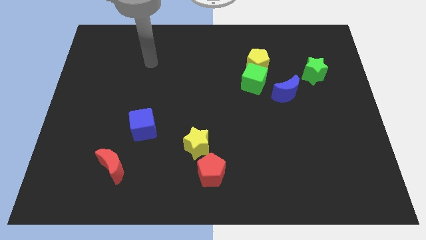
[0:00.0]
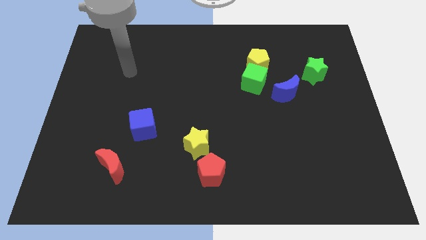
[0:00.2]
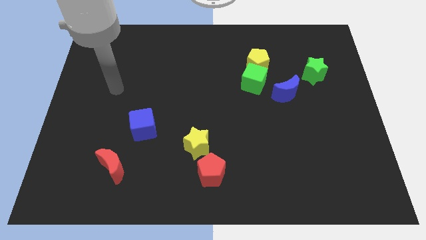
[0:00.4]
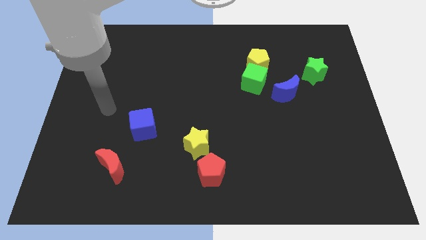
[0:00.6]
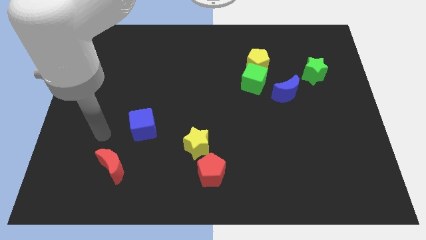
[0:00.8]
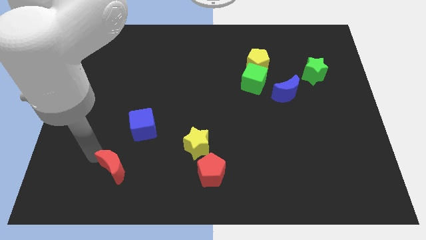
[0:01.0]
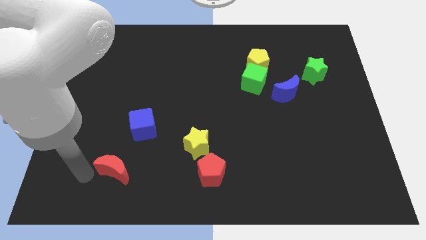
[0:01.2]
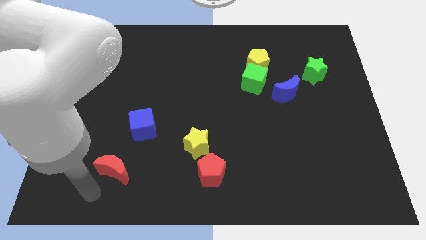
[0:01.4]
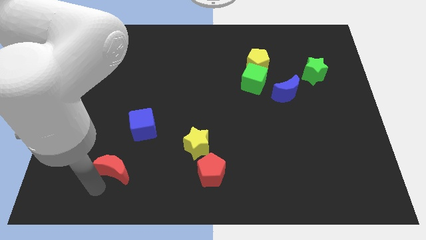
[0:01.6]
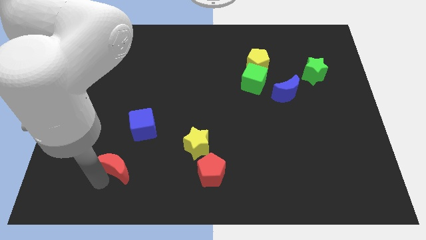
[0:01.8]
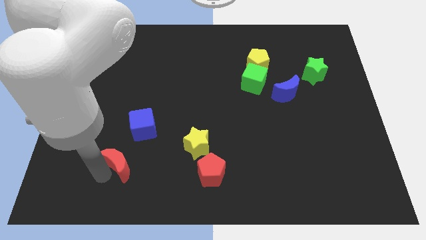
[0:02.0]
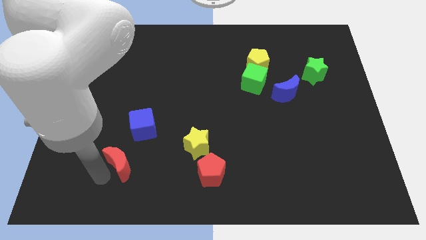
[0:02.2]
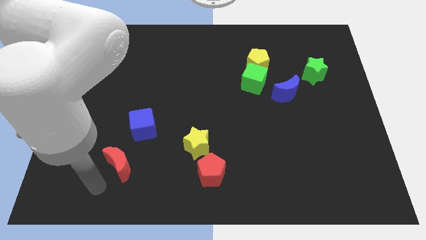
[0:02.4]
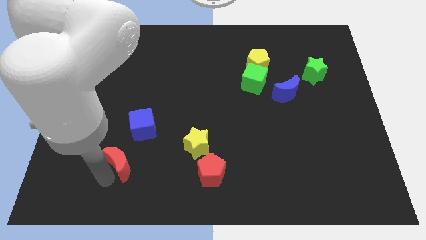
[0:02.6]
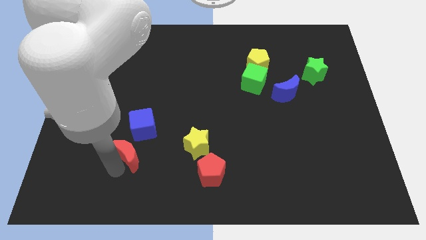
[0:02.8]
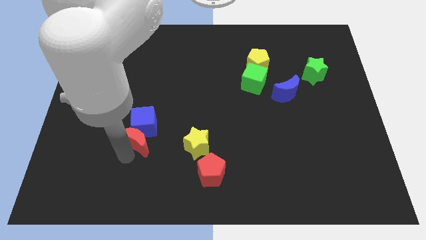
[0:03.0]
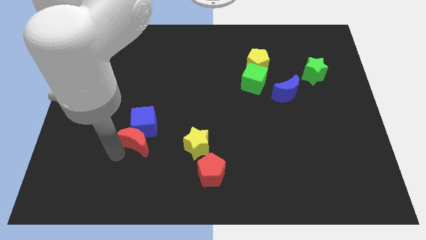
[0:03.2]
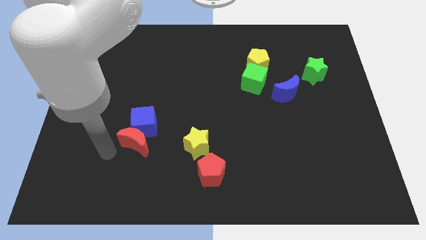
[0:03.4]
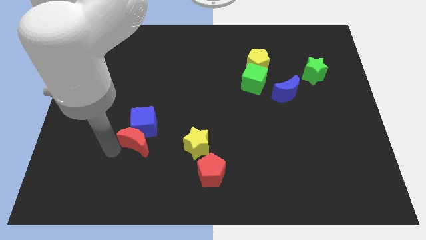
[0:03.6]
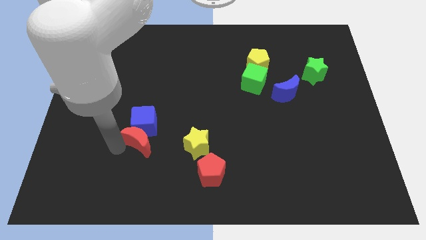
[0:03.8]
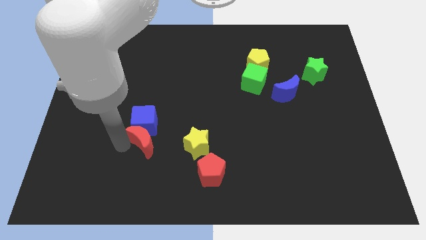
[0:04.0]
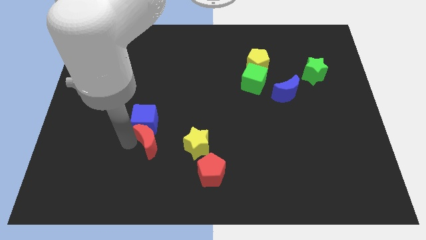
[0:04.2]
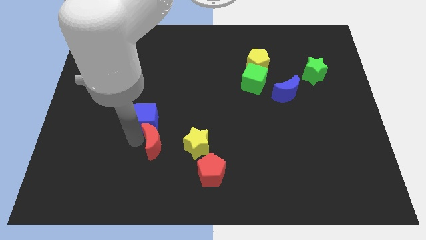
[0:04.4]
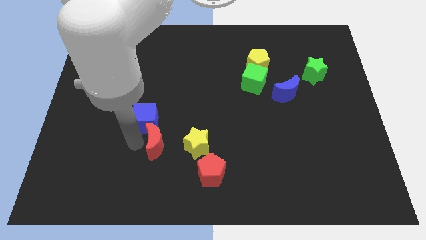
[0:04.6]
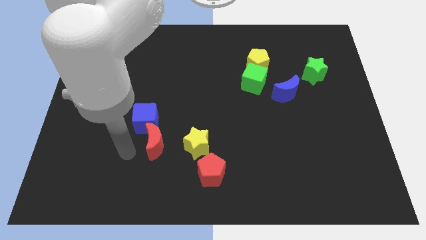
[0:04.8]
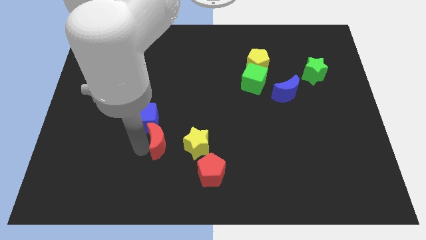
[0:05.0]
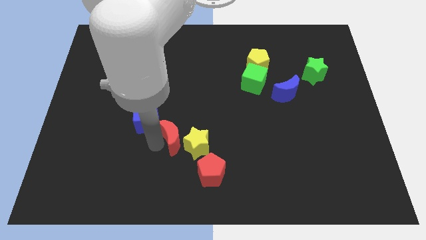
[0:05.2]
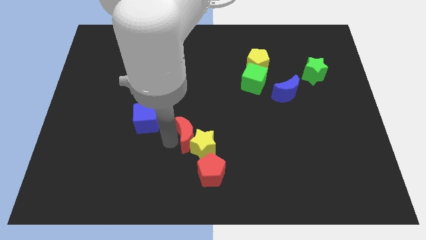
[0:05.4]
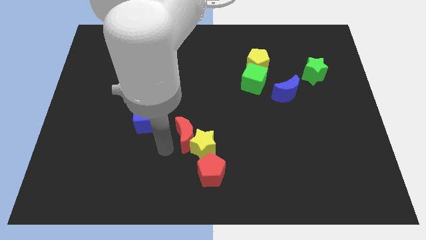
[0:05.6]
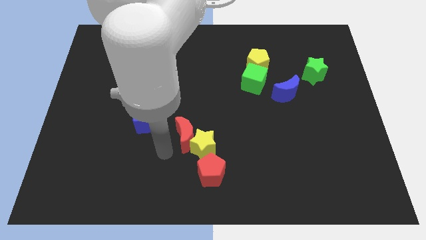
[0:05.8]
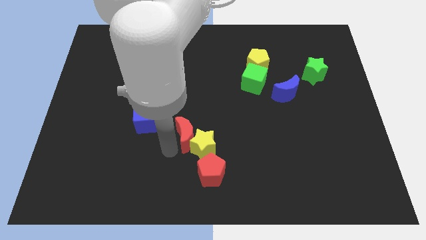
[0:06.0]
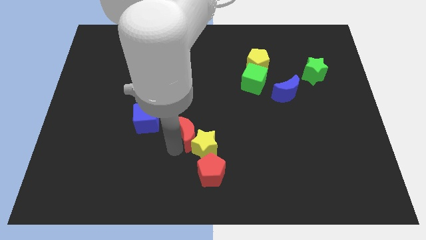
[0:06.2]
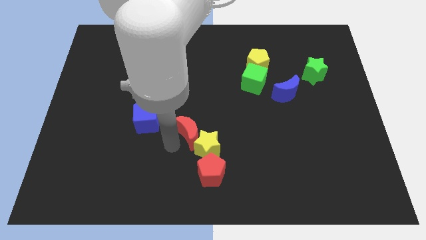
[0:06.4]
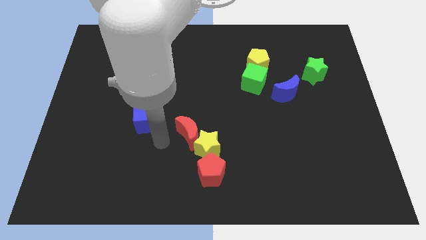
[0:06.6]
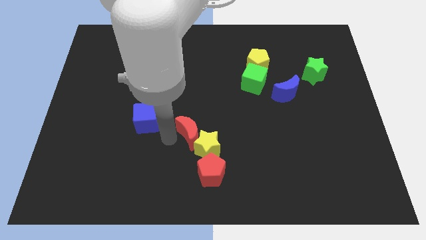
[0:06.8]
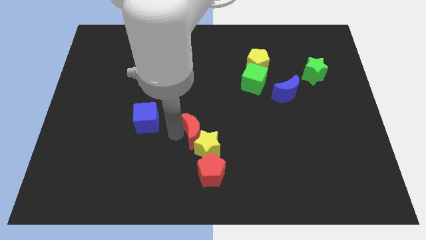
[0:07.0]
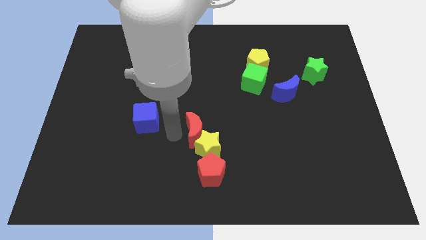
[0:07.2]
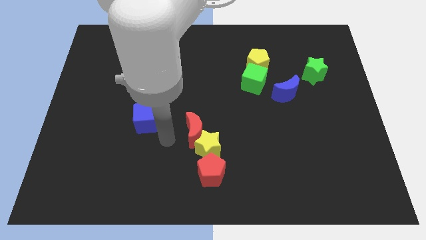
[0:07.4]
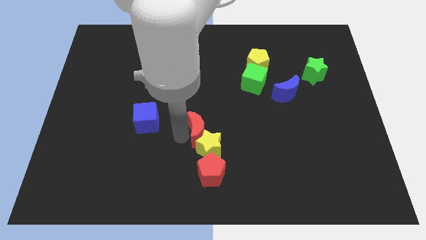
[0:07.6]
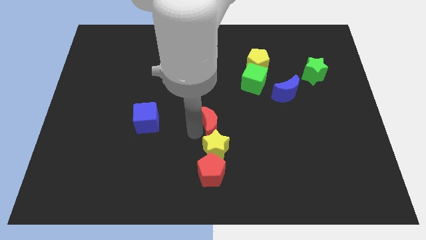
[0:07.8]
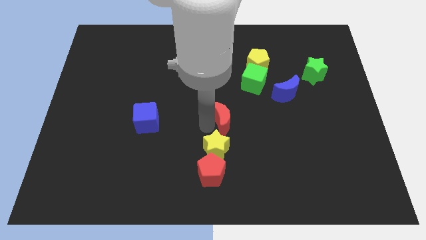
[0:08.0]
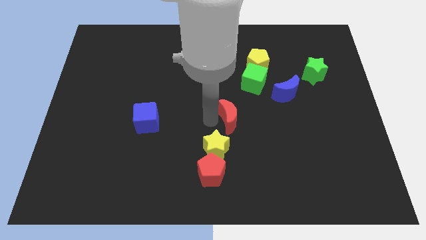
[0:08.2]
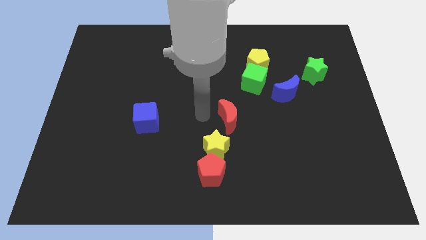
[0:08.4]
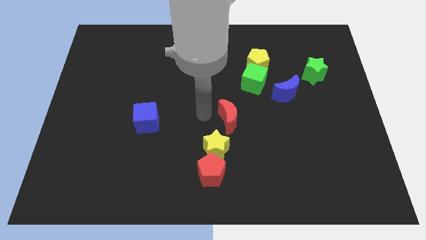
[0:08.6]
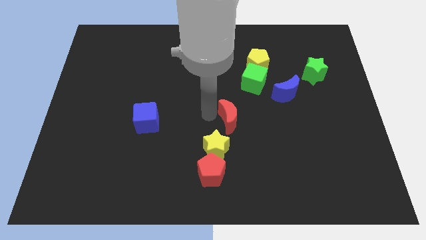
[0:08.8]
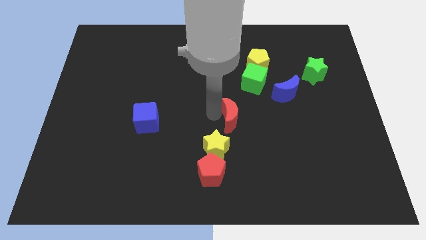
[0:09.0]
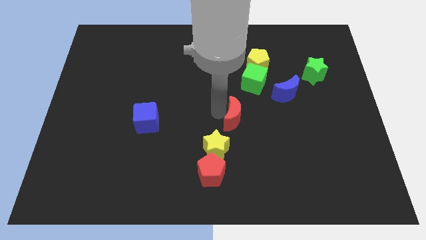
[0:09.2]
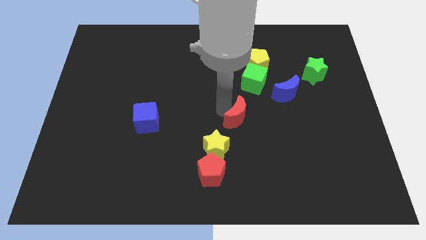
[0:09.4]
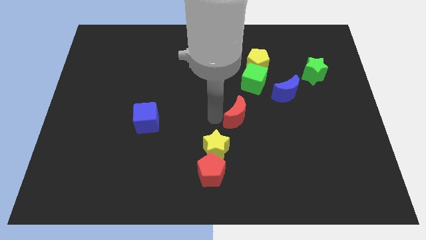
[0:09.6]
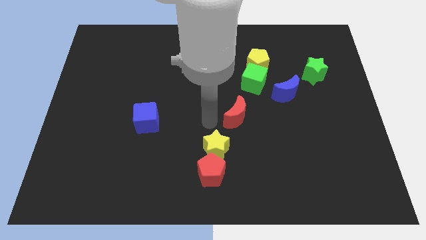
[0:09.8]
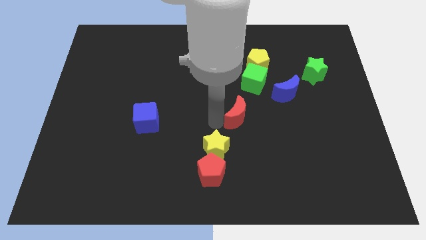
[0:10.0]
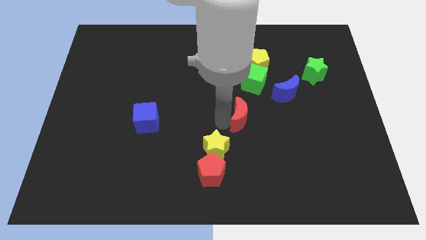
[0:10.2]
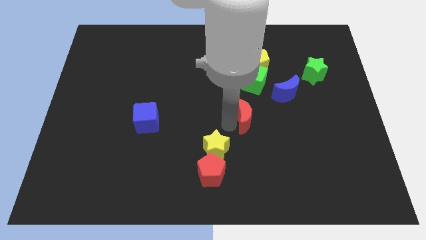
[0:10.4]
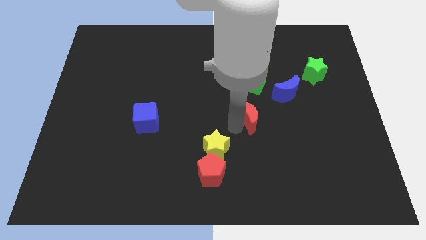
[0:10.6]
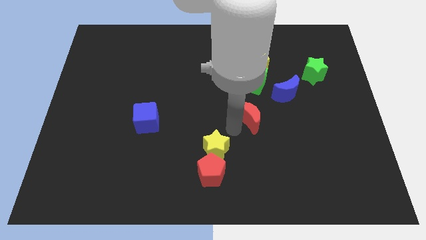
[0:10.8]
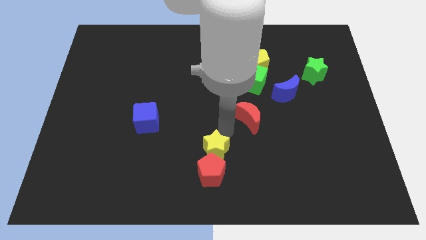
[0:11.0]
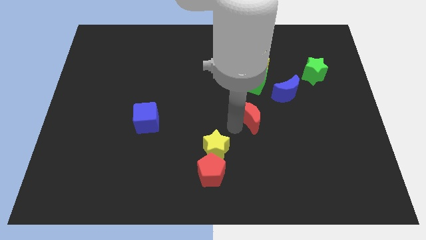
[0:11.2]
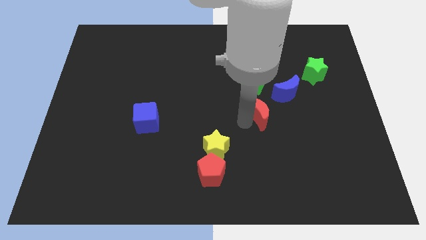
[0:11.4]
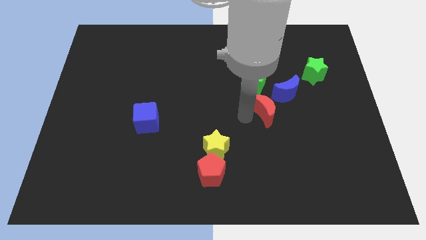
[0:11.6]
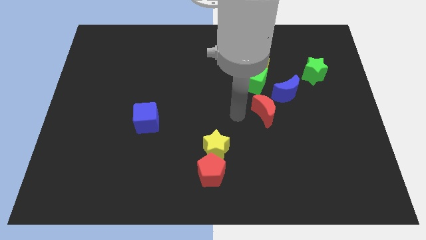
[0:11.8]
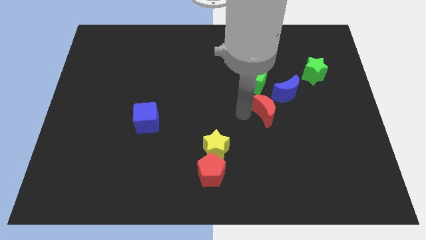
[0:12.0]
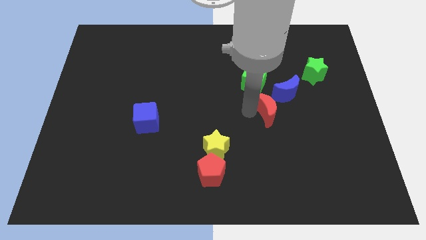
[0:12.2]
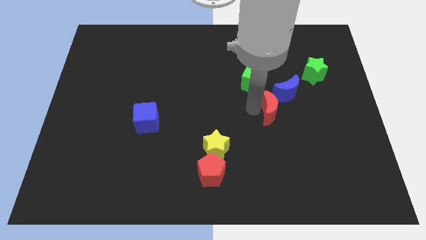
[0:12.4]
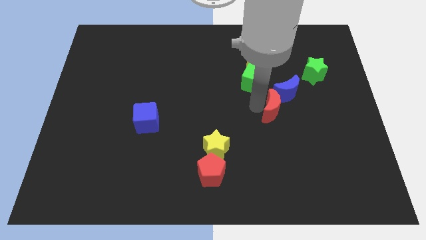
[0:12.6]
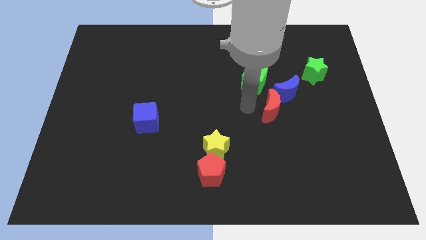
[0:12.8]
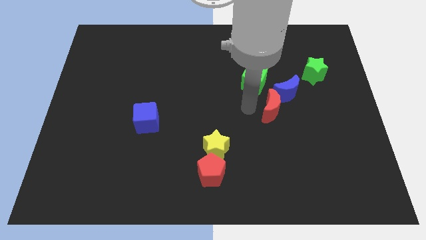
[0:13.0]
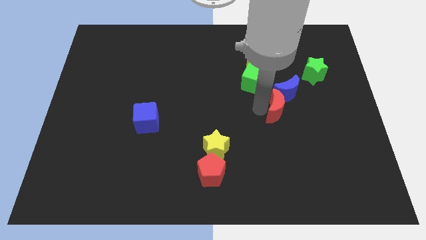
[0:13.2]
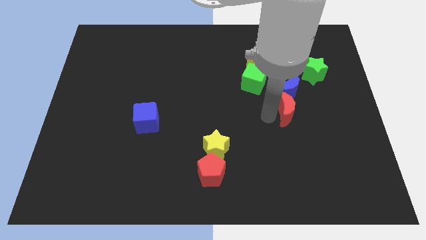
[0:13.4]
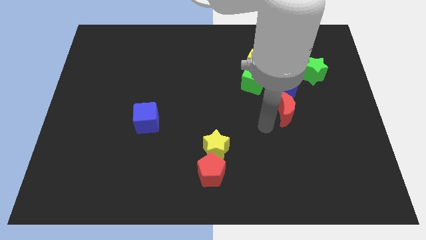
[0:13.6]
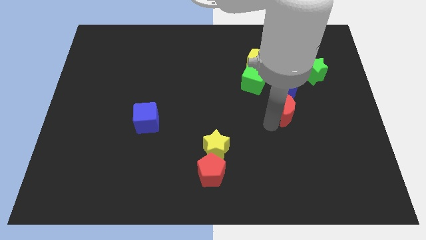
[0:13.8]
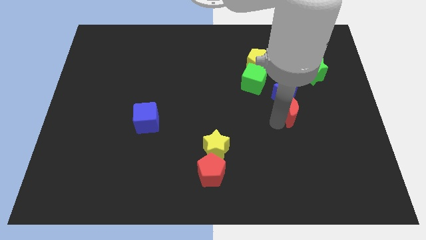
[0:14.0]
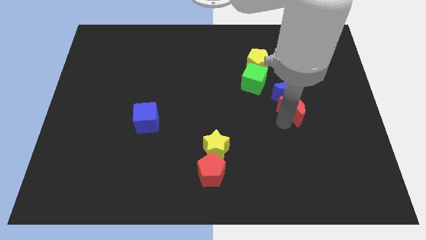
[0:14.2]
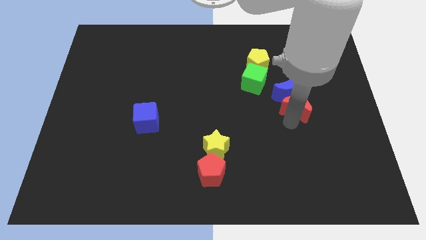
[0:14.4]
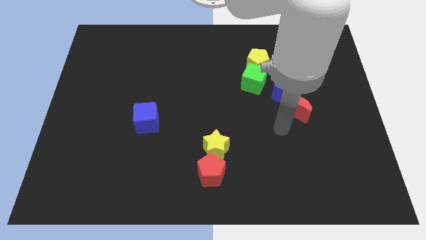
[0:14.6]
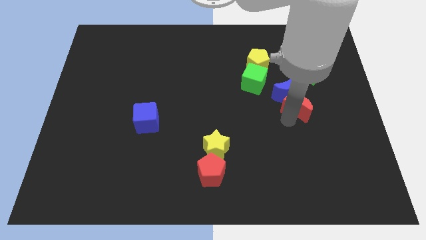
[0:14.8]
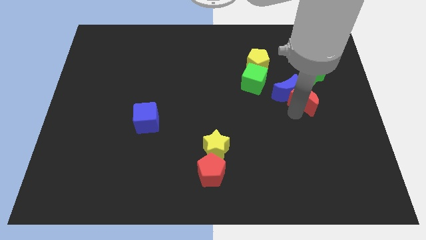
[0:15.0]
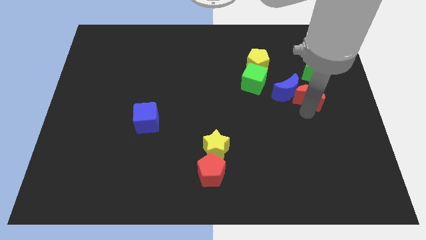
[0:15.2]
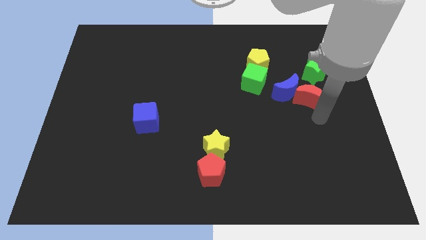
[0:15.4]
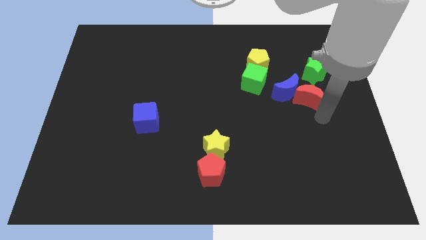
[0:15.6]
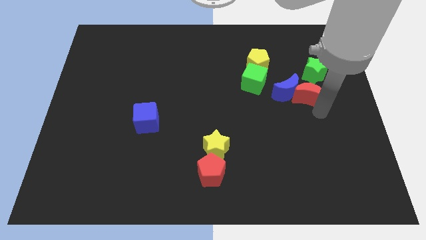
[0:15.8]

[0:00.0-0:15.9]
put the red moon just right of the green cube

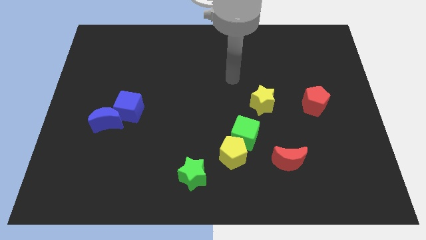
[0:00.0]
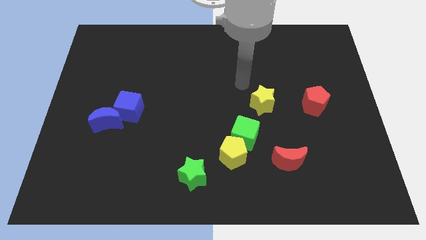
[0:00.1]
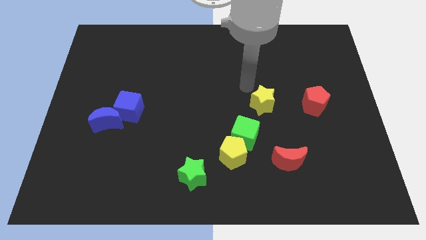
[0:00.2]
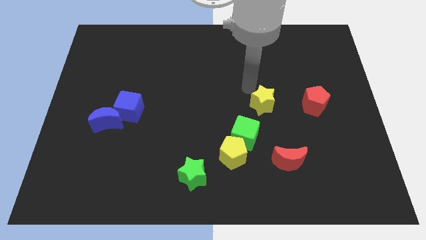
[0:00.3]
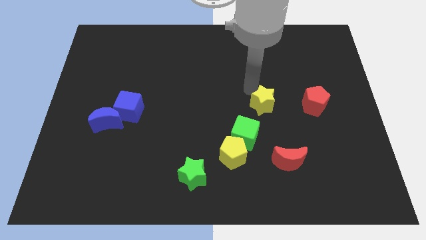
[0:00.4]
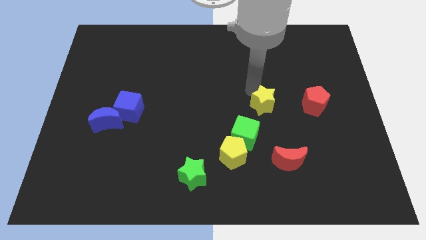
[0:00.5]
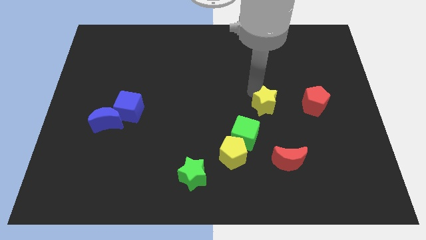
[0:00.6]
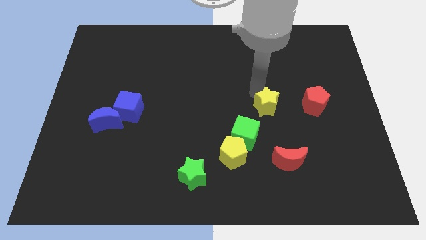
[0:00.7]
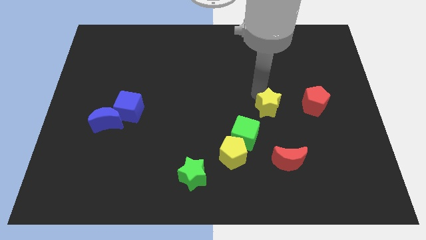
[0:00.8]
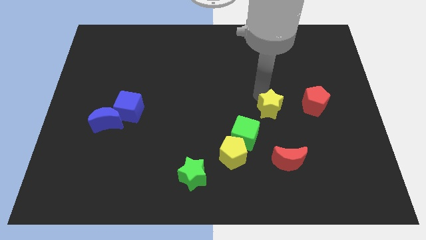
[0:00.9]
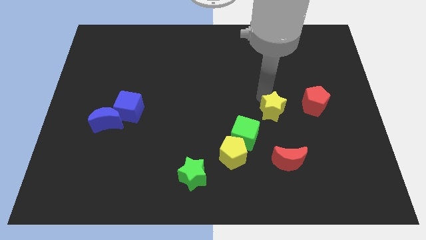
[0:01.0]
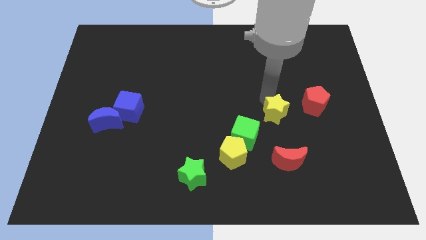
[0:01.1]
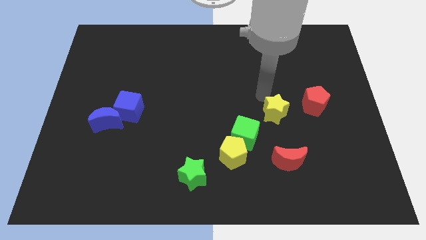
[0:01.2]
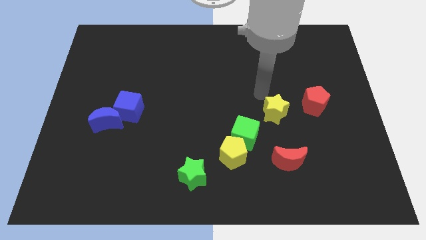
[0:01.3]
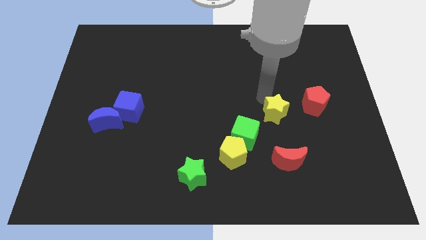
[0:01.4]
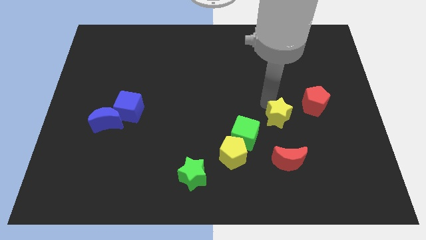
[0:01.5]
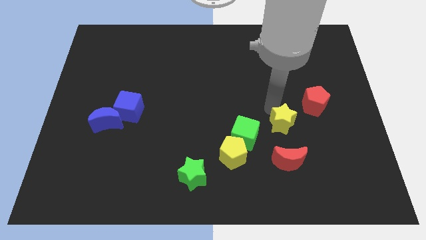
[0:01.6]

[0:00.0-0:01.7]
move the yellow star right of the green cube
